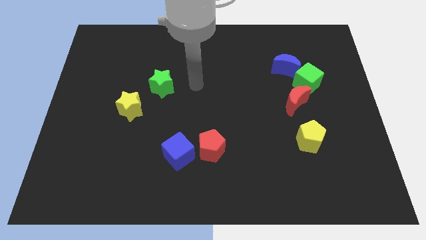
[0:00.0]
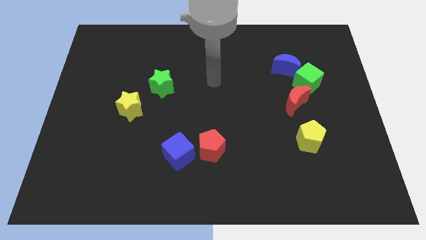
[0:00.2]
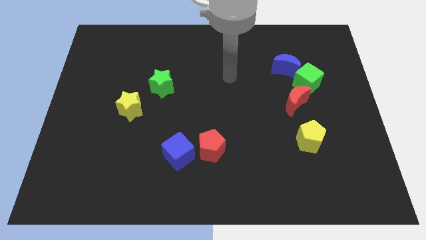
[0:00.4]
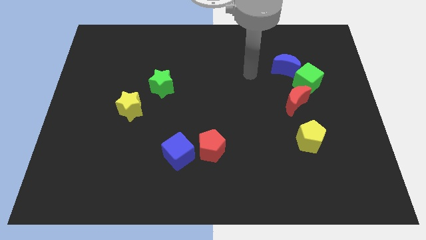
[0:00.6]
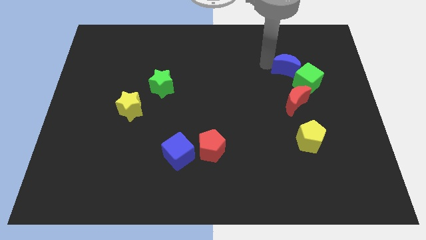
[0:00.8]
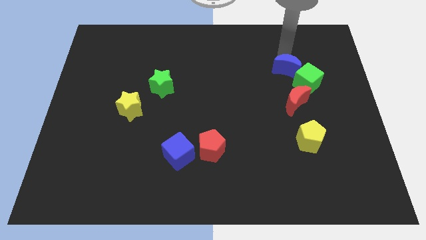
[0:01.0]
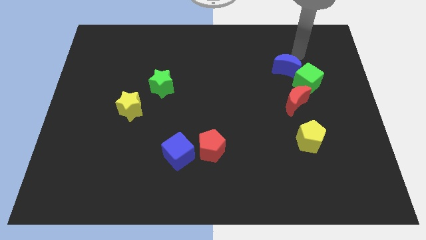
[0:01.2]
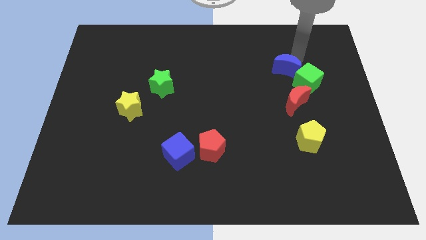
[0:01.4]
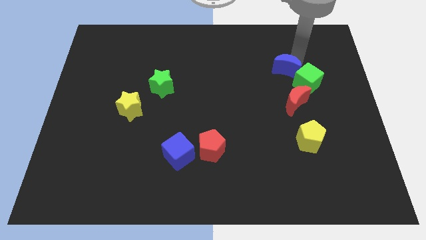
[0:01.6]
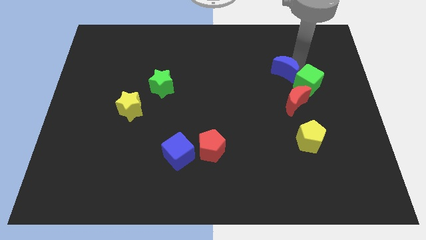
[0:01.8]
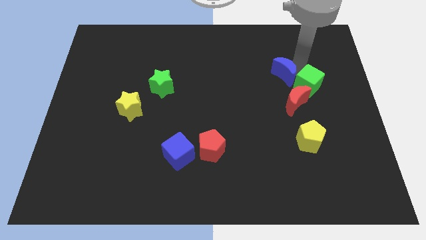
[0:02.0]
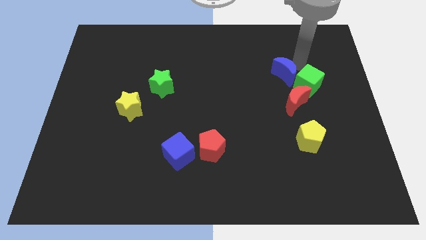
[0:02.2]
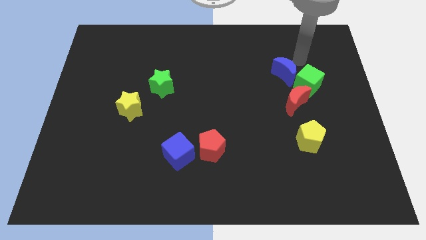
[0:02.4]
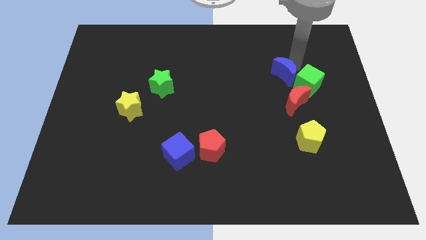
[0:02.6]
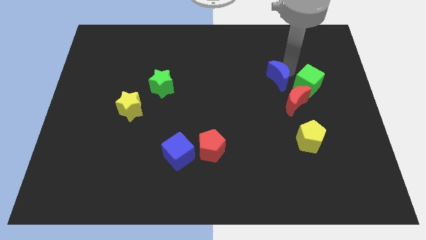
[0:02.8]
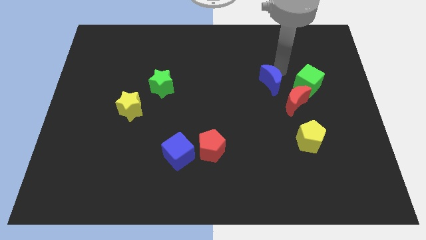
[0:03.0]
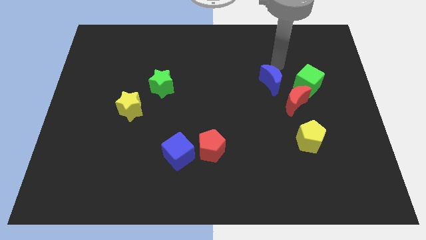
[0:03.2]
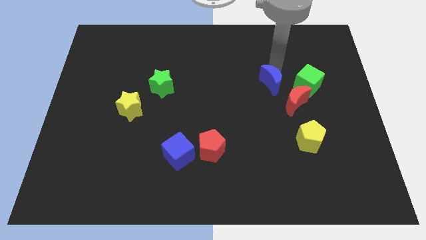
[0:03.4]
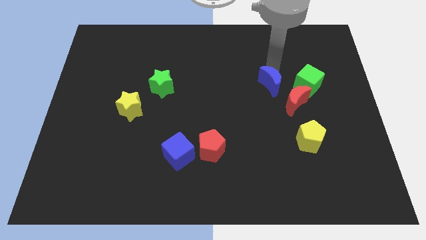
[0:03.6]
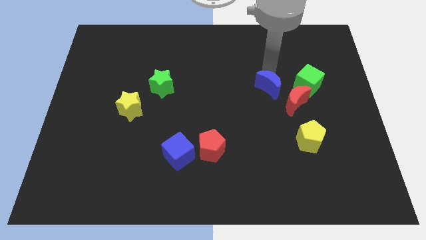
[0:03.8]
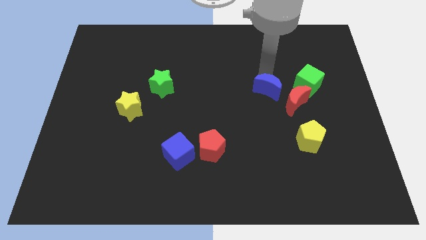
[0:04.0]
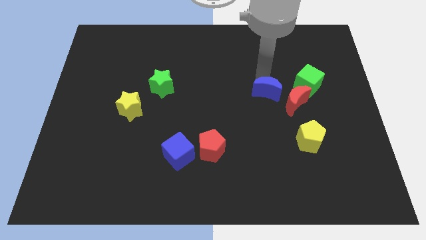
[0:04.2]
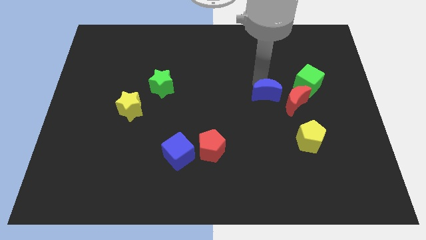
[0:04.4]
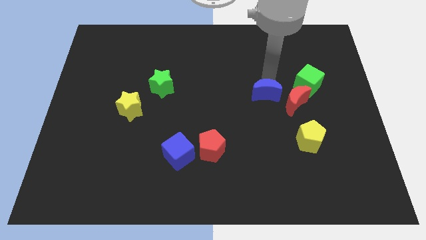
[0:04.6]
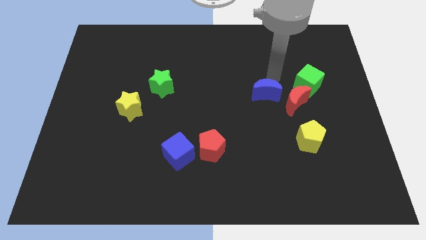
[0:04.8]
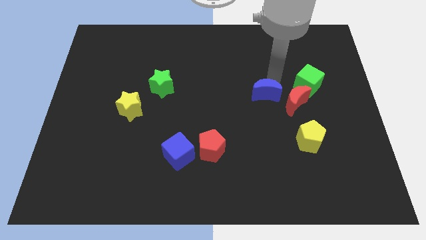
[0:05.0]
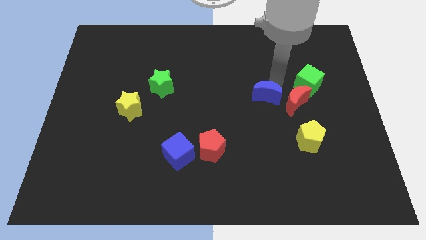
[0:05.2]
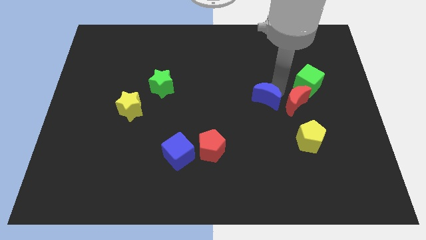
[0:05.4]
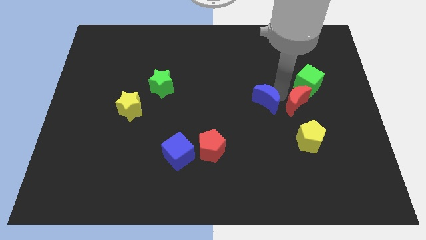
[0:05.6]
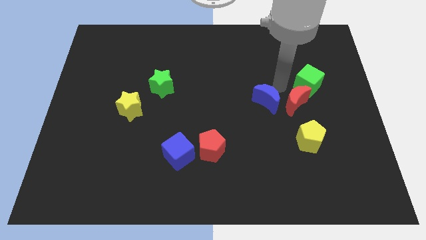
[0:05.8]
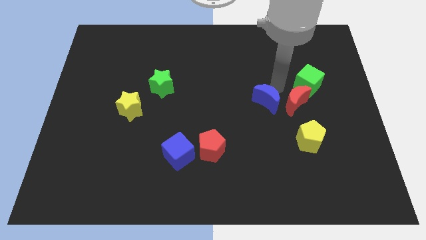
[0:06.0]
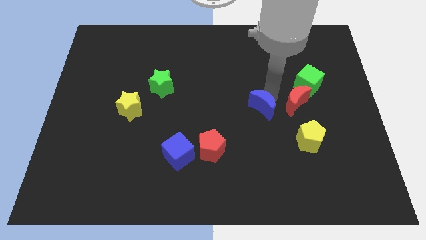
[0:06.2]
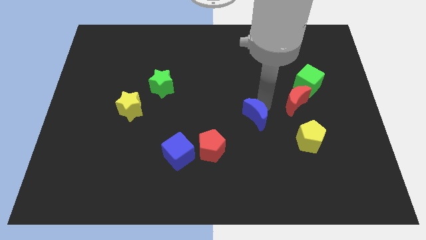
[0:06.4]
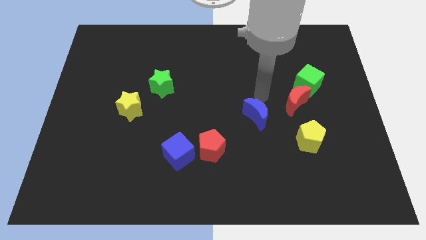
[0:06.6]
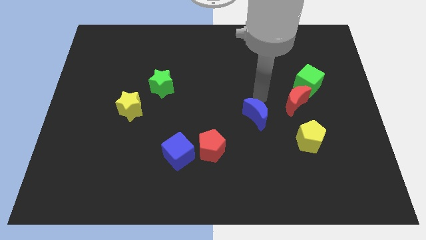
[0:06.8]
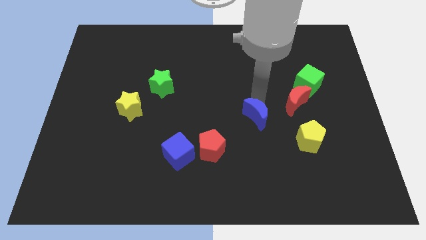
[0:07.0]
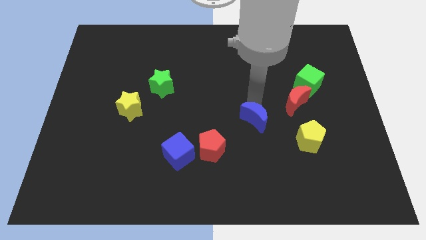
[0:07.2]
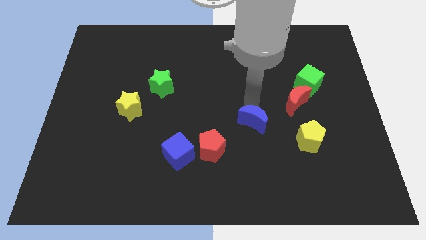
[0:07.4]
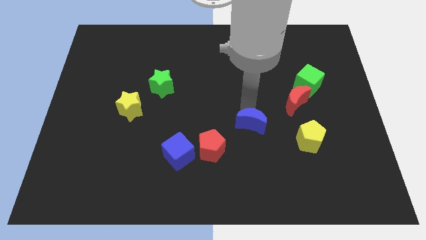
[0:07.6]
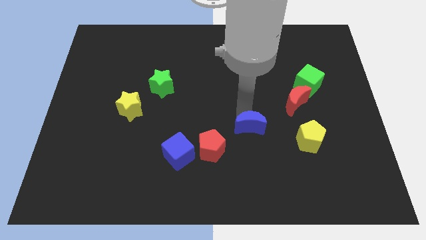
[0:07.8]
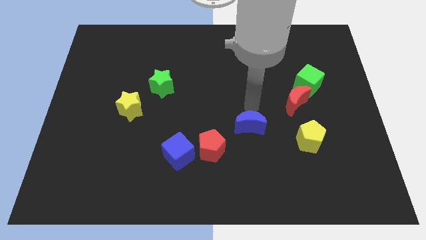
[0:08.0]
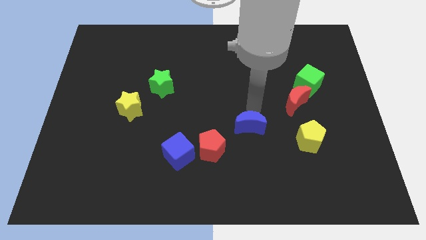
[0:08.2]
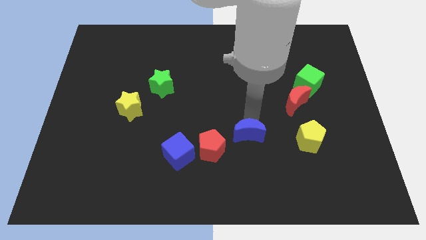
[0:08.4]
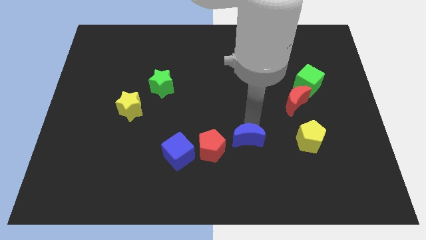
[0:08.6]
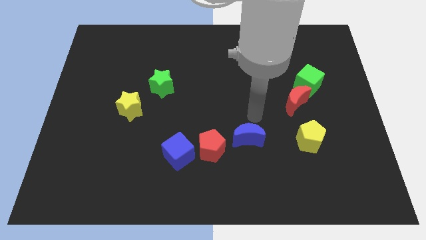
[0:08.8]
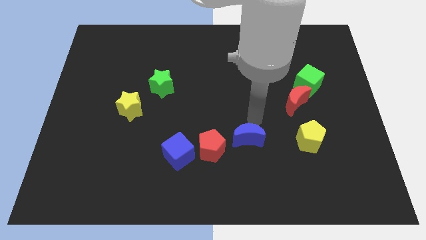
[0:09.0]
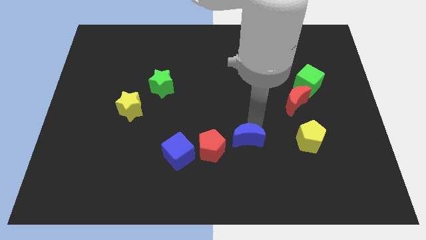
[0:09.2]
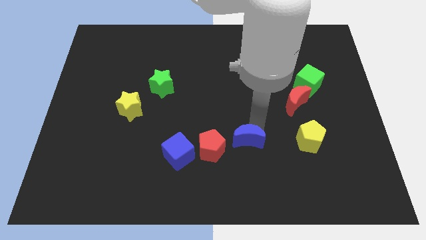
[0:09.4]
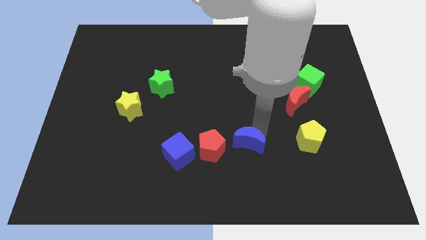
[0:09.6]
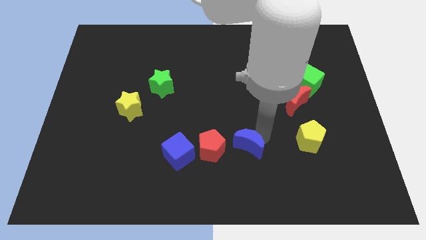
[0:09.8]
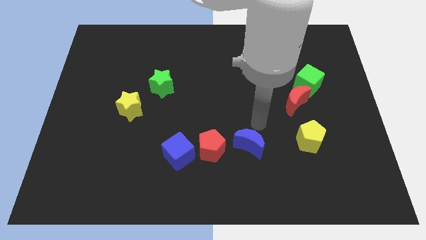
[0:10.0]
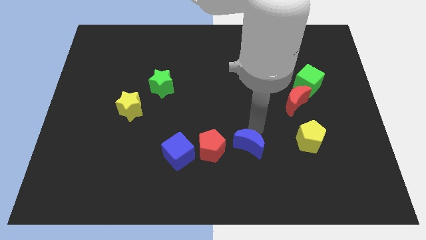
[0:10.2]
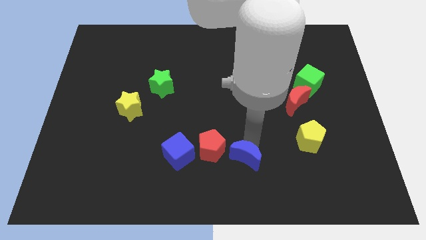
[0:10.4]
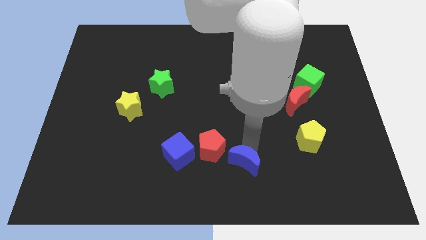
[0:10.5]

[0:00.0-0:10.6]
slide the blue moon to the bottom

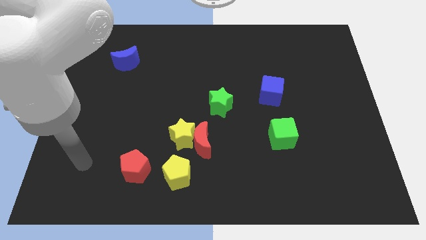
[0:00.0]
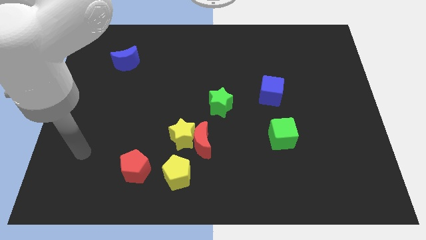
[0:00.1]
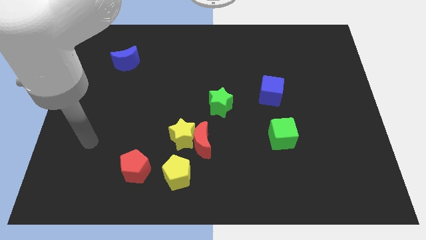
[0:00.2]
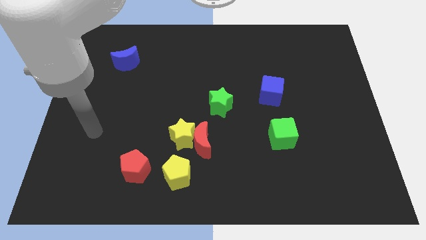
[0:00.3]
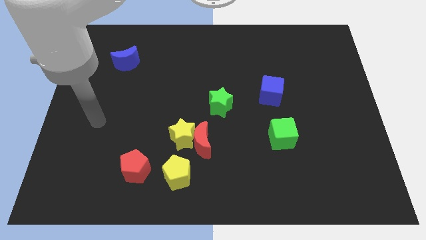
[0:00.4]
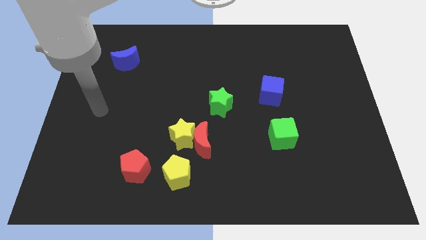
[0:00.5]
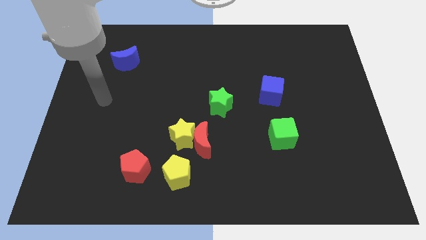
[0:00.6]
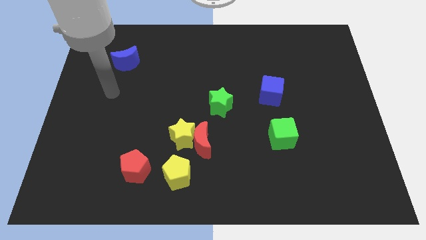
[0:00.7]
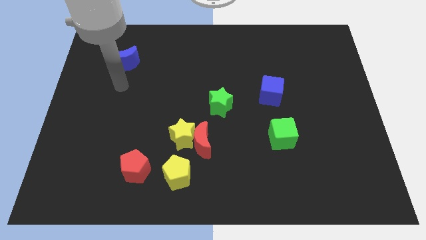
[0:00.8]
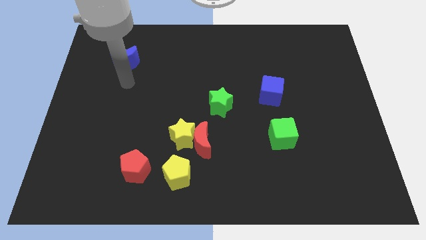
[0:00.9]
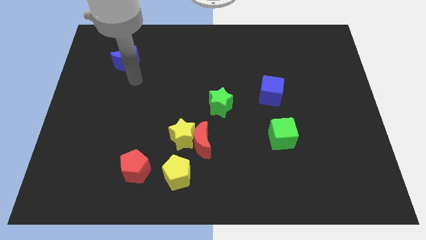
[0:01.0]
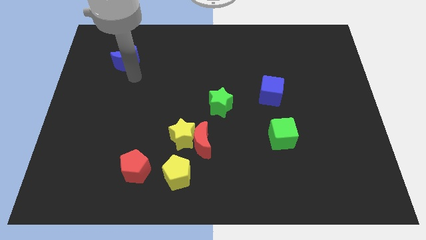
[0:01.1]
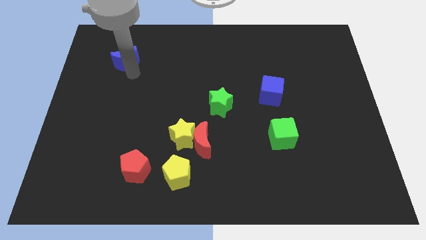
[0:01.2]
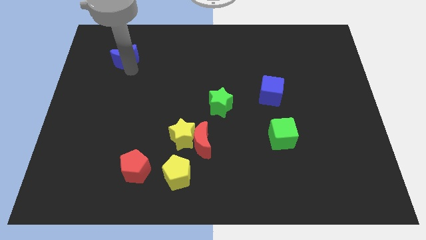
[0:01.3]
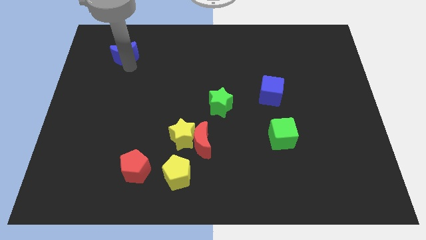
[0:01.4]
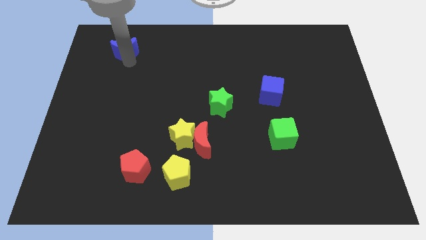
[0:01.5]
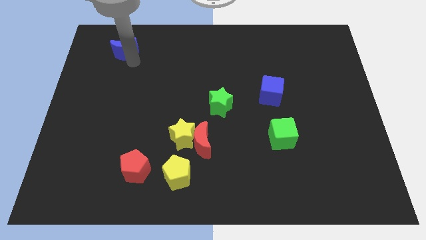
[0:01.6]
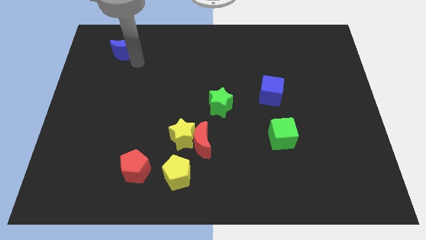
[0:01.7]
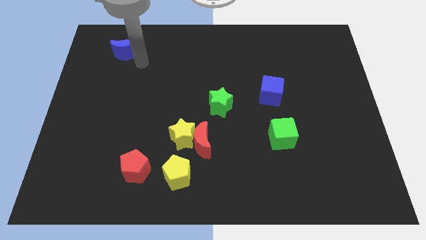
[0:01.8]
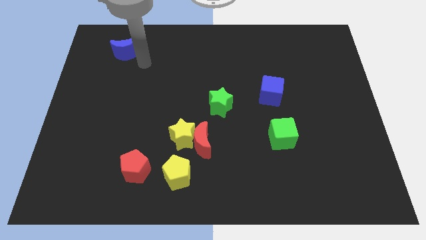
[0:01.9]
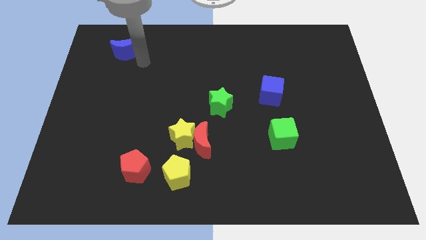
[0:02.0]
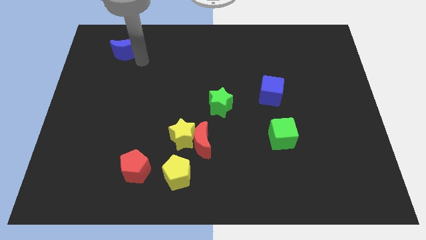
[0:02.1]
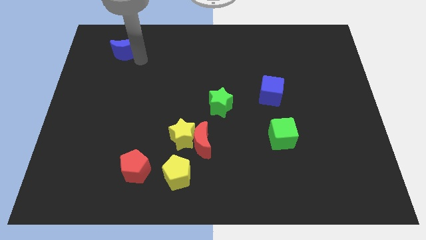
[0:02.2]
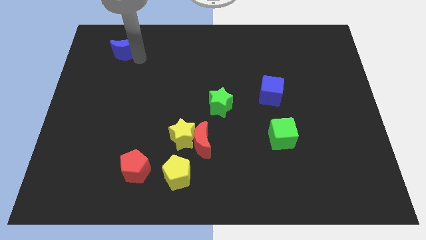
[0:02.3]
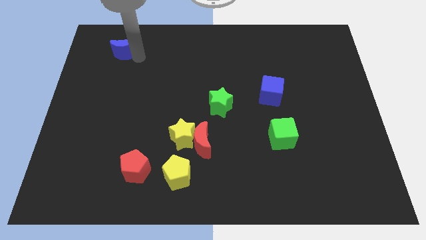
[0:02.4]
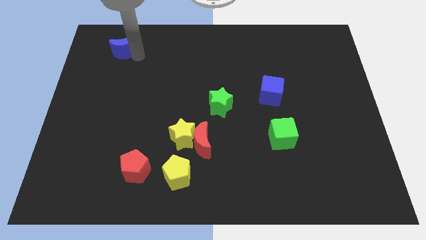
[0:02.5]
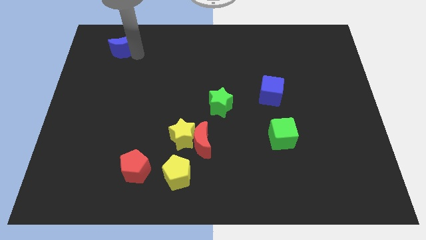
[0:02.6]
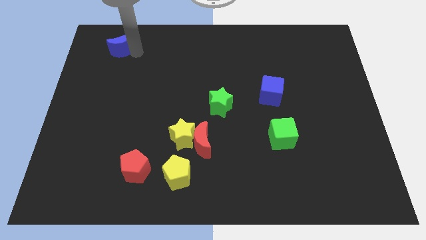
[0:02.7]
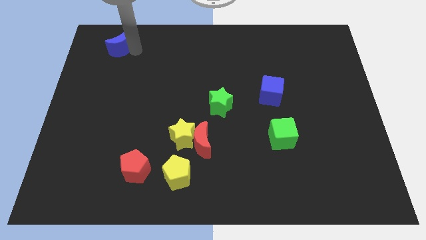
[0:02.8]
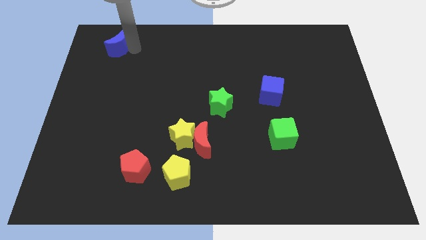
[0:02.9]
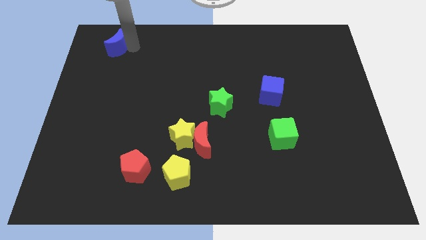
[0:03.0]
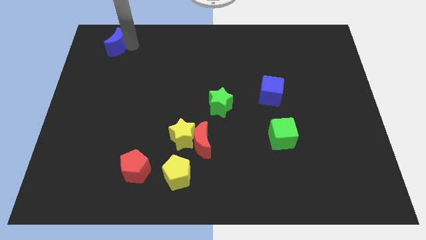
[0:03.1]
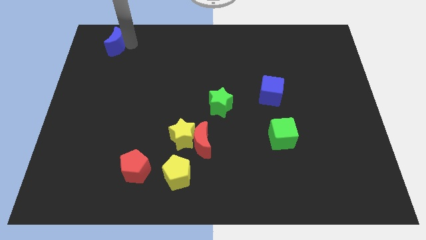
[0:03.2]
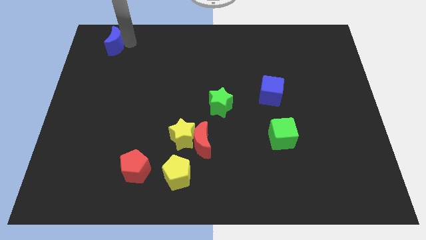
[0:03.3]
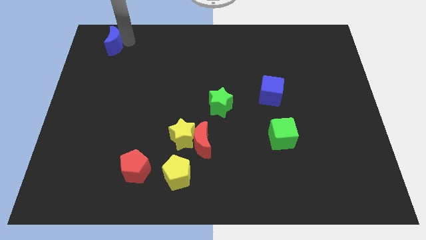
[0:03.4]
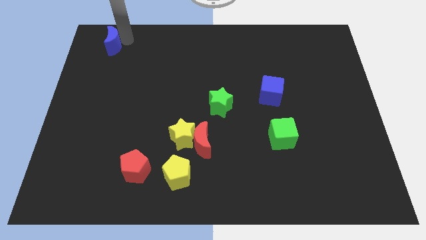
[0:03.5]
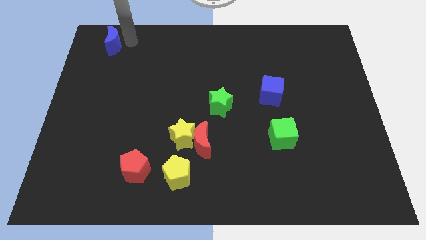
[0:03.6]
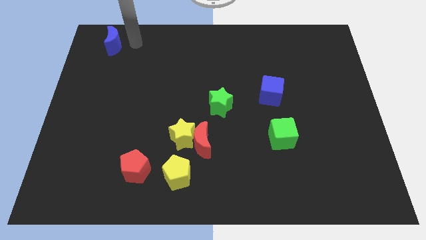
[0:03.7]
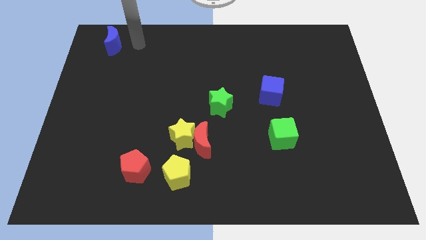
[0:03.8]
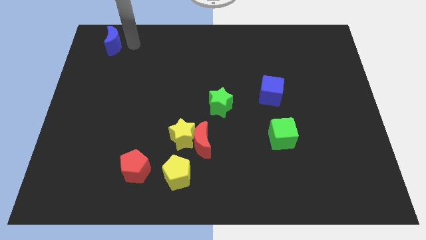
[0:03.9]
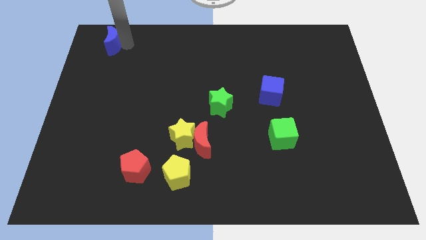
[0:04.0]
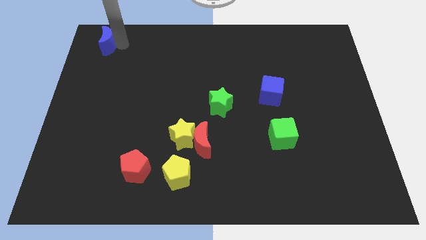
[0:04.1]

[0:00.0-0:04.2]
slide the blue moon to the upper left corner
